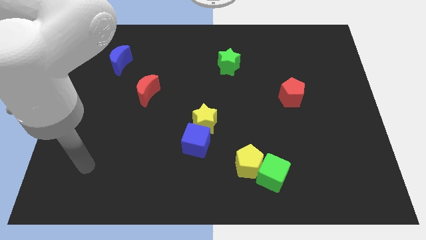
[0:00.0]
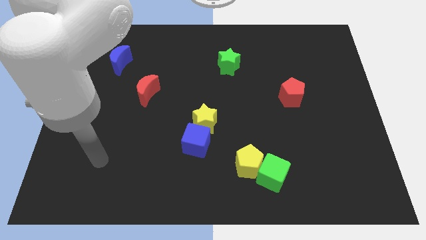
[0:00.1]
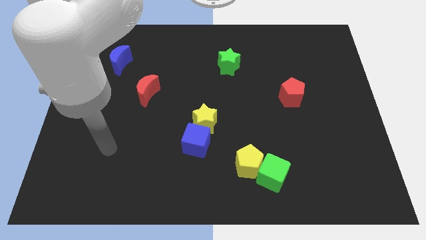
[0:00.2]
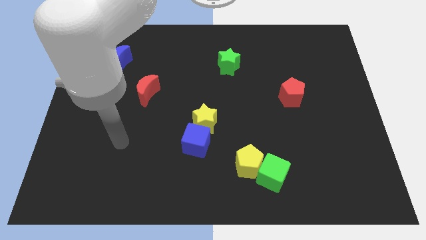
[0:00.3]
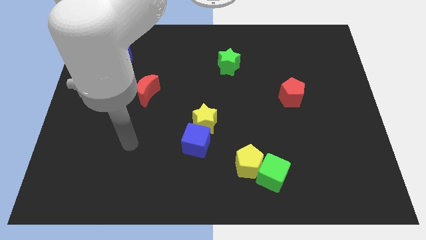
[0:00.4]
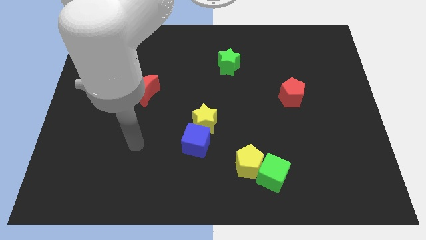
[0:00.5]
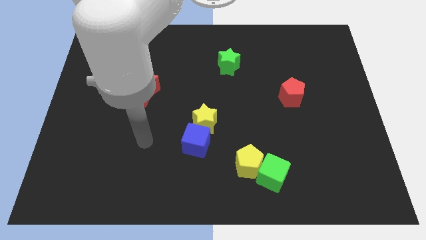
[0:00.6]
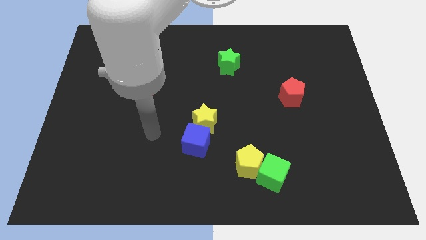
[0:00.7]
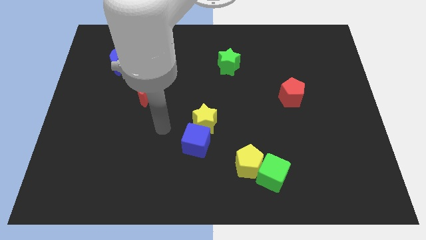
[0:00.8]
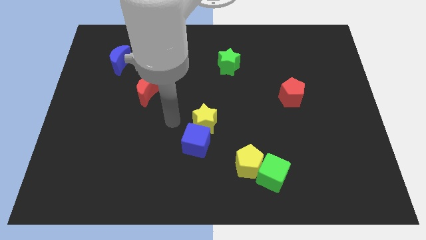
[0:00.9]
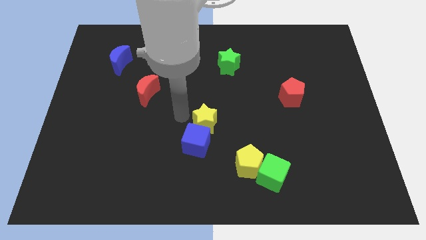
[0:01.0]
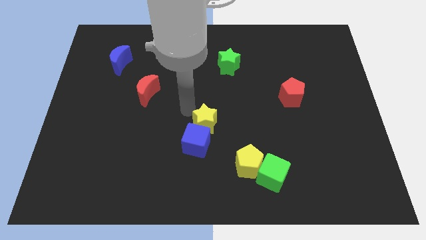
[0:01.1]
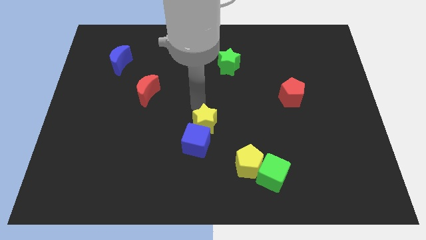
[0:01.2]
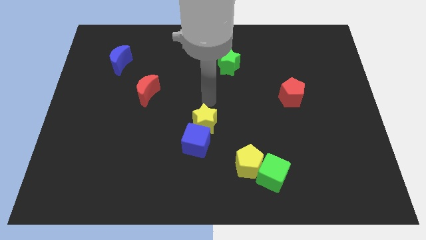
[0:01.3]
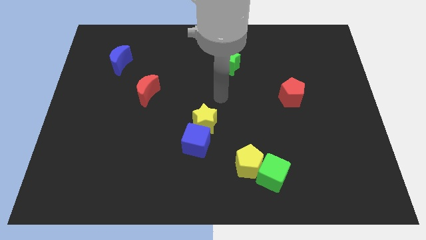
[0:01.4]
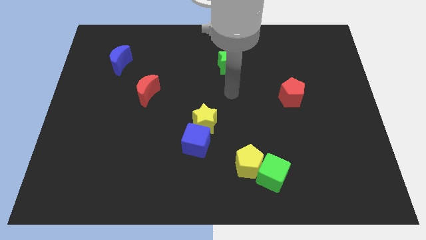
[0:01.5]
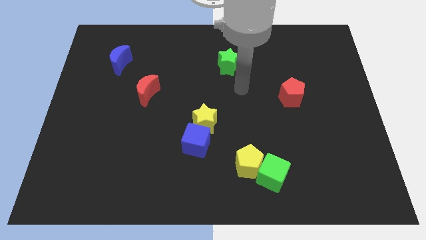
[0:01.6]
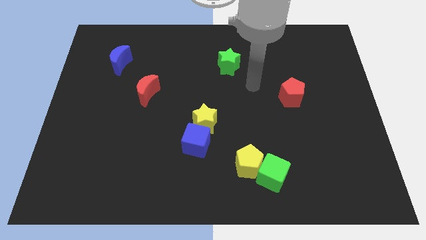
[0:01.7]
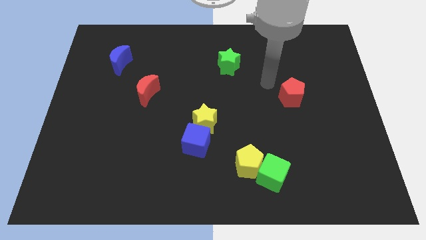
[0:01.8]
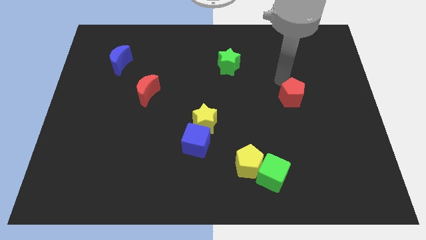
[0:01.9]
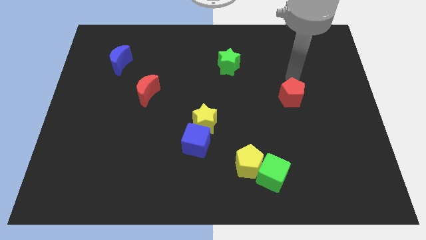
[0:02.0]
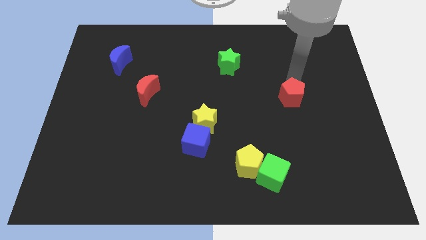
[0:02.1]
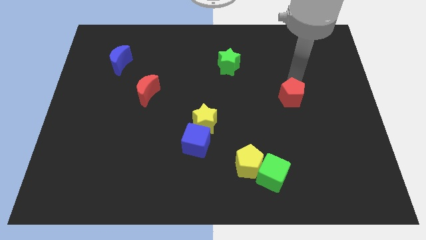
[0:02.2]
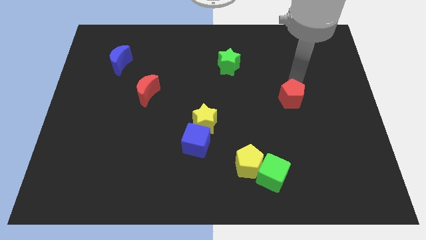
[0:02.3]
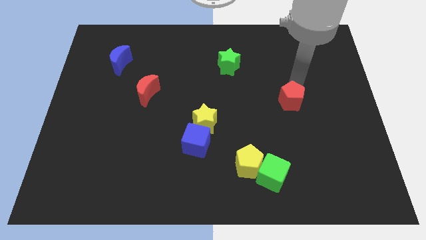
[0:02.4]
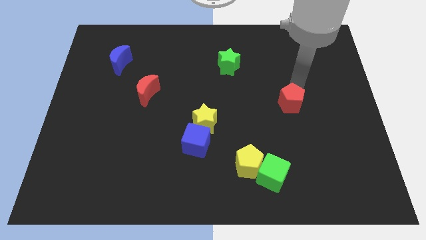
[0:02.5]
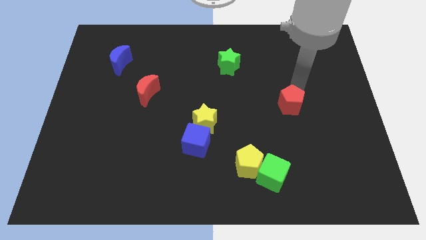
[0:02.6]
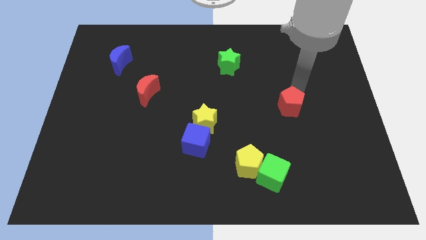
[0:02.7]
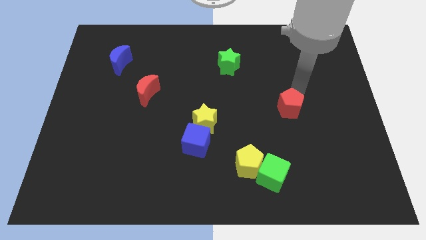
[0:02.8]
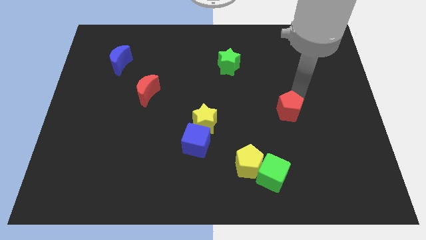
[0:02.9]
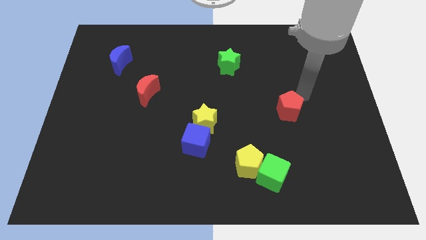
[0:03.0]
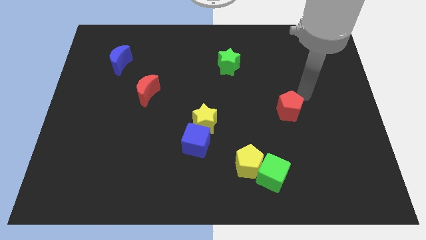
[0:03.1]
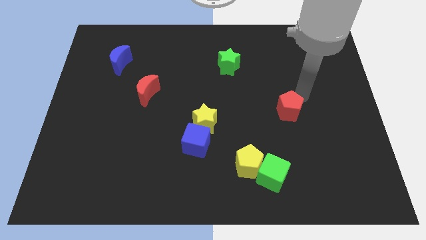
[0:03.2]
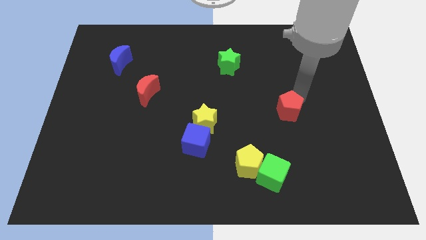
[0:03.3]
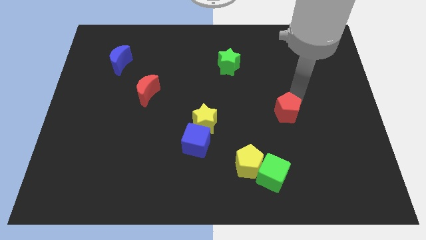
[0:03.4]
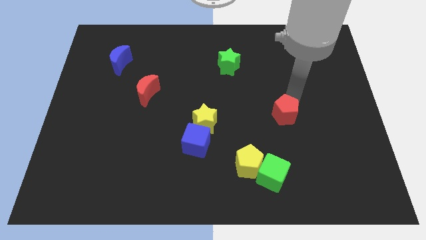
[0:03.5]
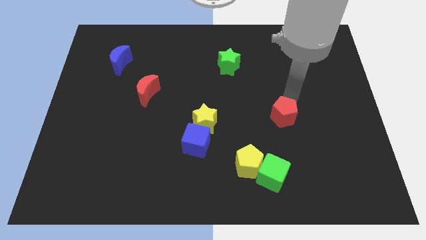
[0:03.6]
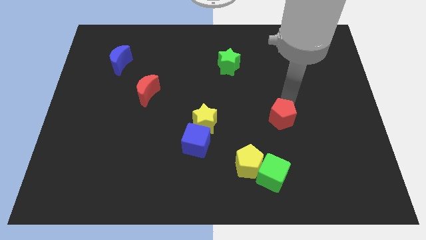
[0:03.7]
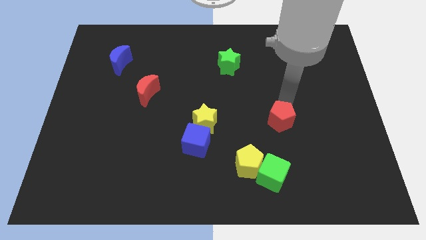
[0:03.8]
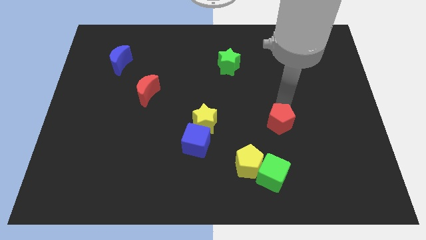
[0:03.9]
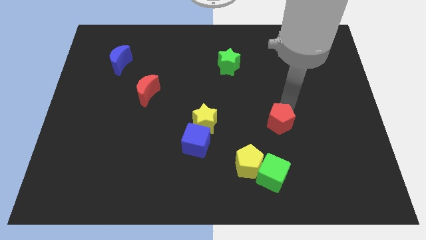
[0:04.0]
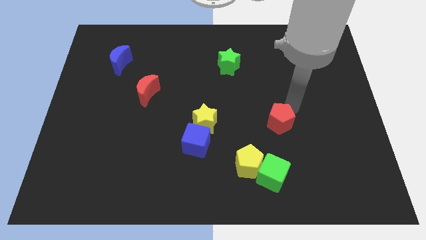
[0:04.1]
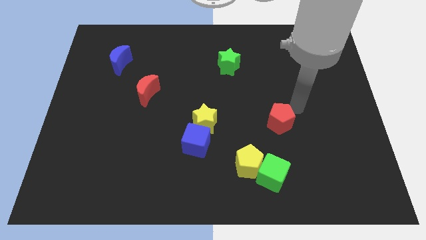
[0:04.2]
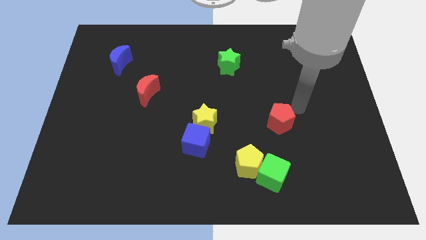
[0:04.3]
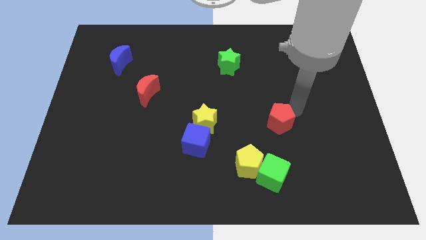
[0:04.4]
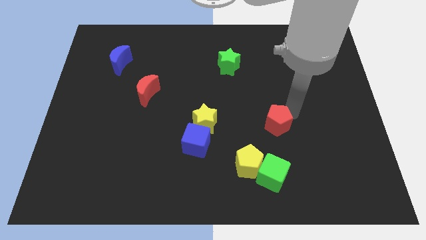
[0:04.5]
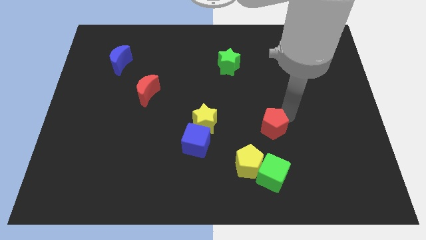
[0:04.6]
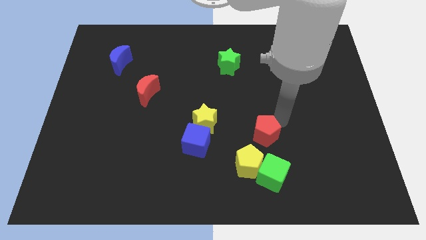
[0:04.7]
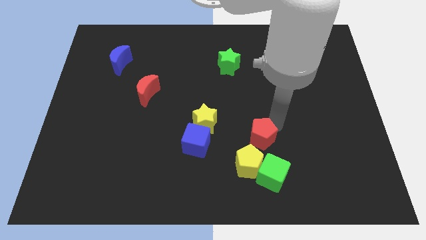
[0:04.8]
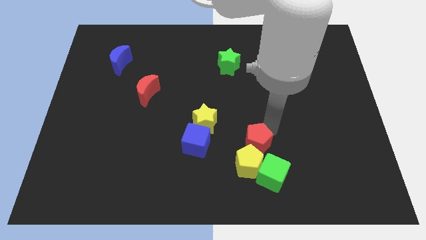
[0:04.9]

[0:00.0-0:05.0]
slide the red pentagon to the top left of the green cube

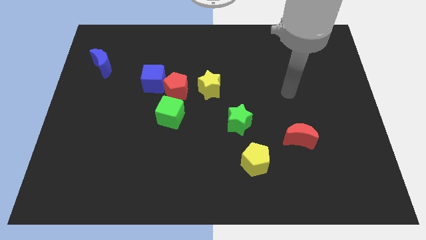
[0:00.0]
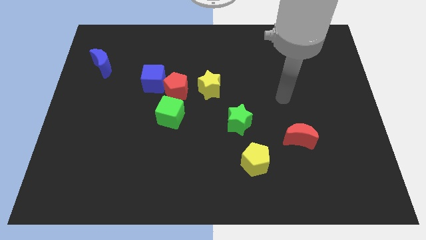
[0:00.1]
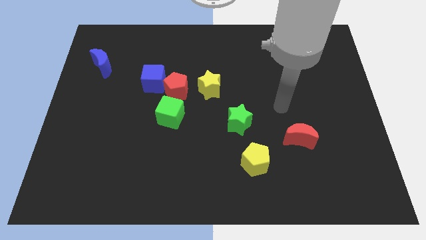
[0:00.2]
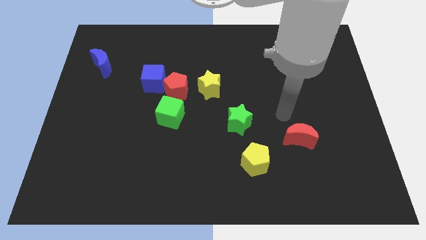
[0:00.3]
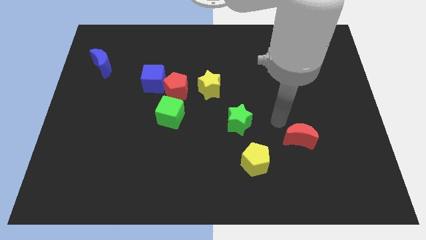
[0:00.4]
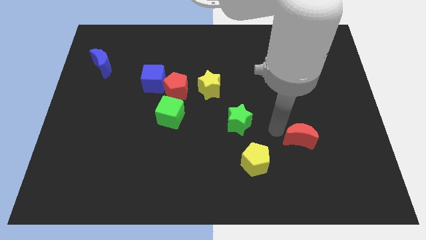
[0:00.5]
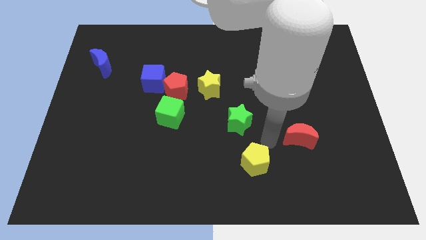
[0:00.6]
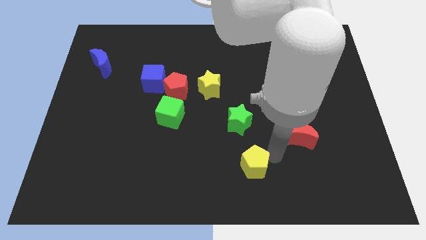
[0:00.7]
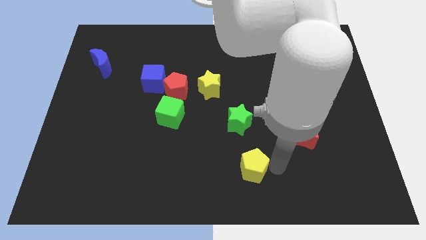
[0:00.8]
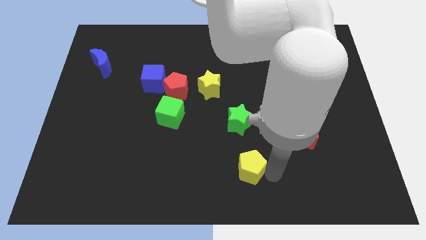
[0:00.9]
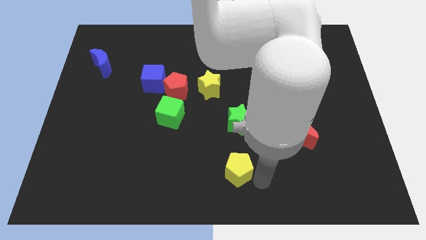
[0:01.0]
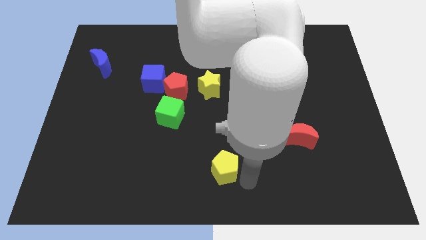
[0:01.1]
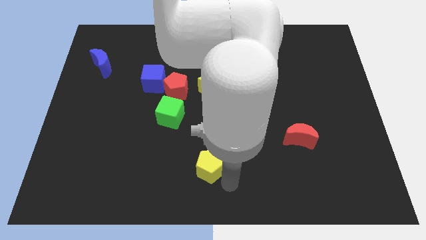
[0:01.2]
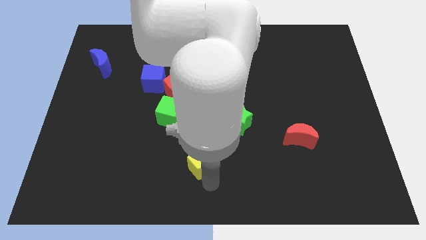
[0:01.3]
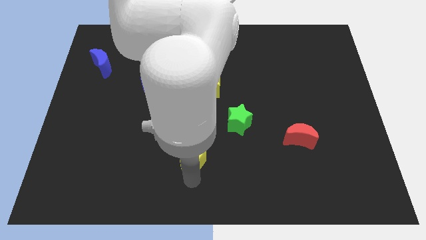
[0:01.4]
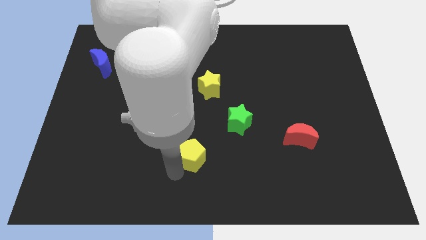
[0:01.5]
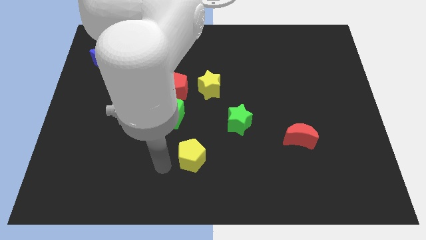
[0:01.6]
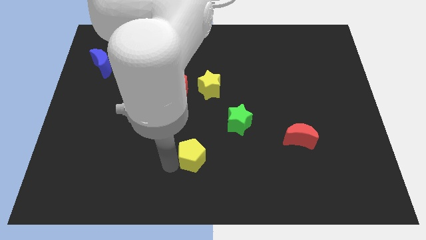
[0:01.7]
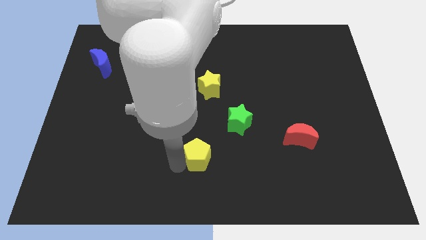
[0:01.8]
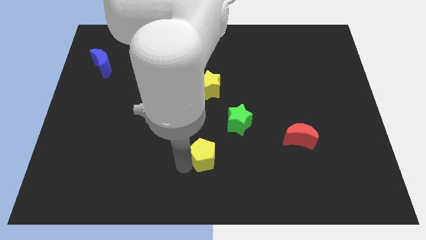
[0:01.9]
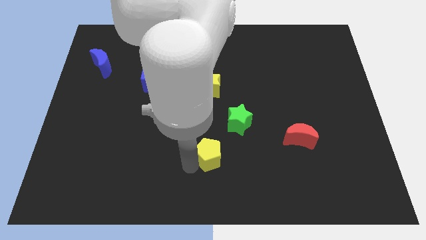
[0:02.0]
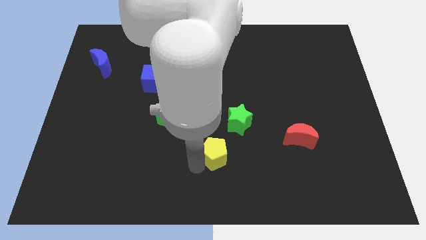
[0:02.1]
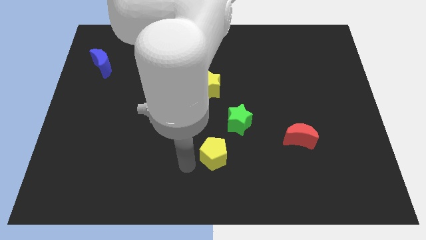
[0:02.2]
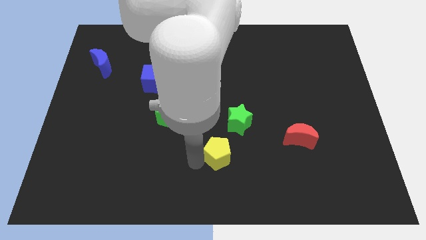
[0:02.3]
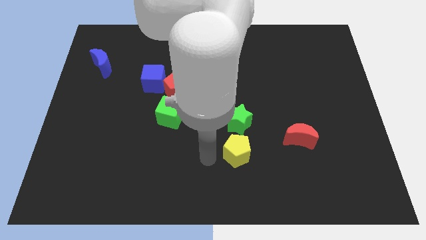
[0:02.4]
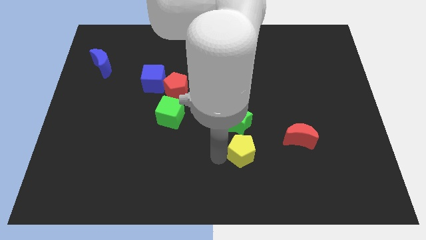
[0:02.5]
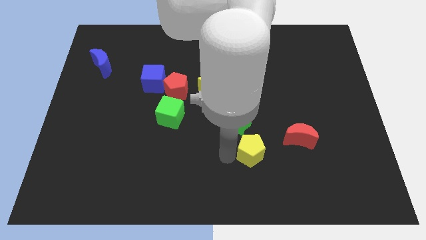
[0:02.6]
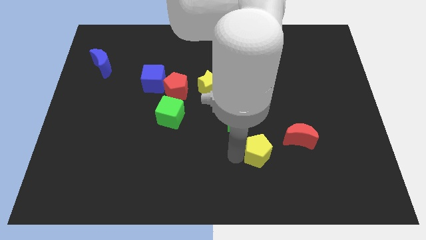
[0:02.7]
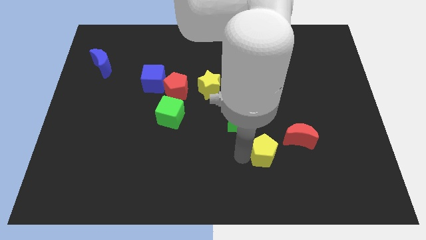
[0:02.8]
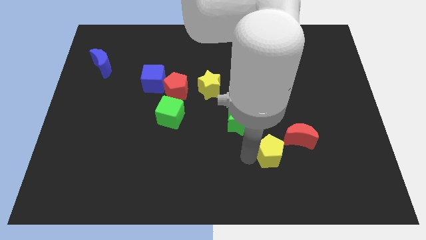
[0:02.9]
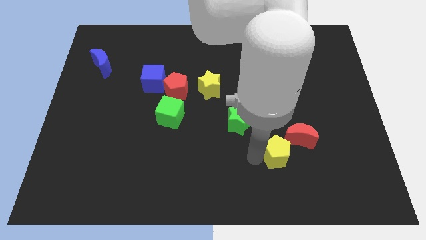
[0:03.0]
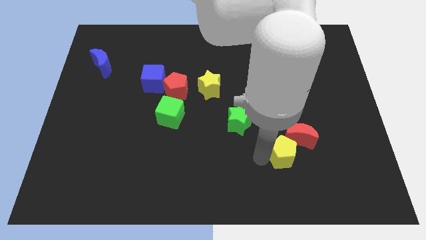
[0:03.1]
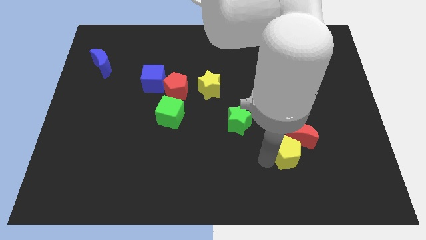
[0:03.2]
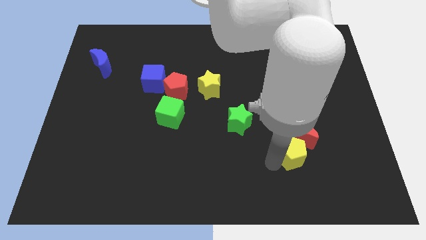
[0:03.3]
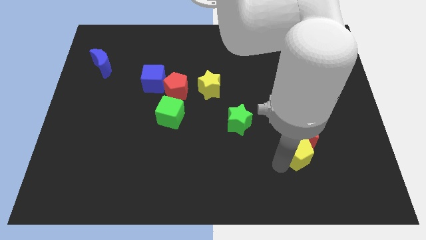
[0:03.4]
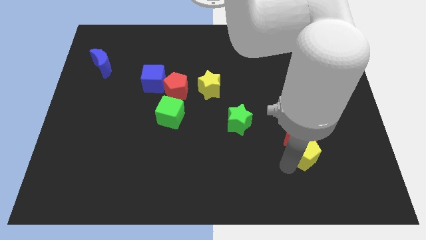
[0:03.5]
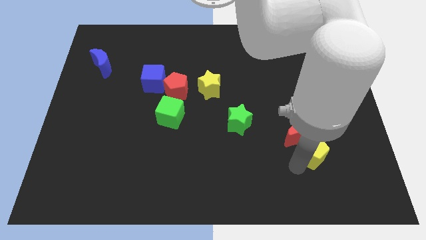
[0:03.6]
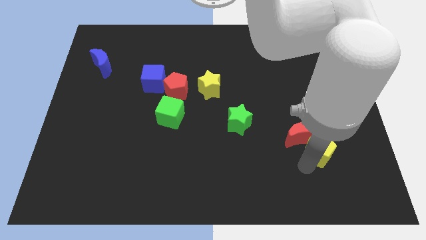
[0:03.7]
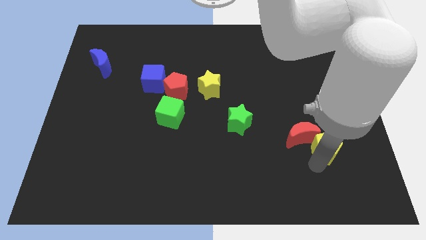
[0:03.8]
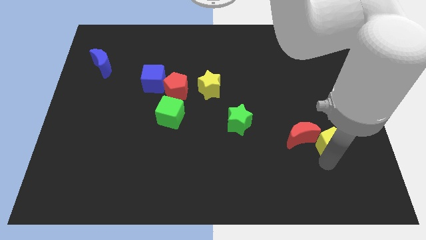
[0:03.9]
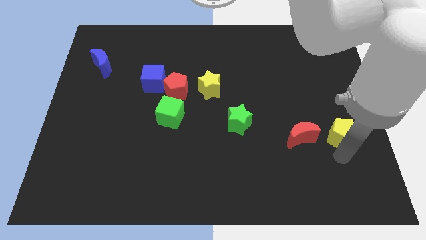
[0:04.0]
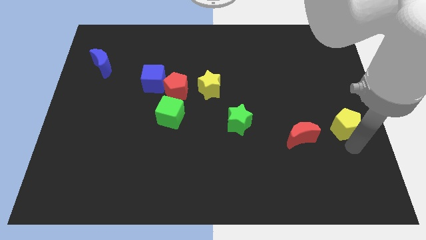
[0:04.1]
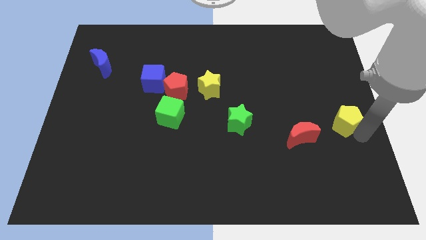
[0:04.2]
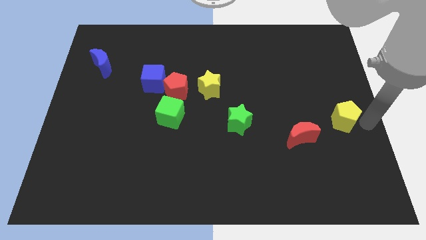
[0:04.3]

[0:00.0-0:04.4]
move the yellow pentagon diagonally up and to the right of the red moon
